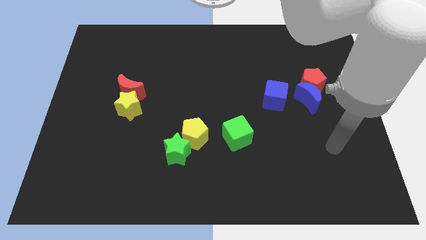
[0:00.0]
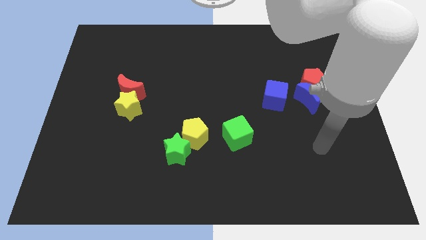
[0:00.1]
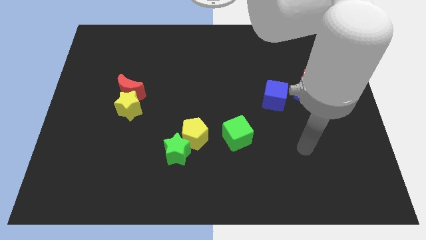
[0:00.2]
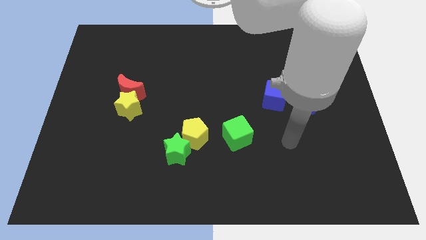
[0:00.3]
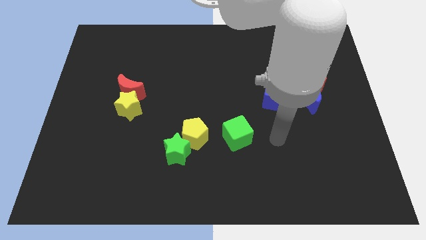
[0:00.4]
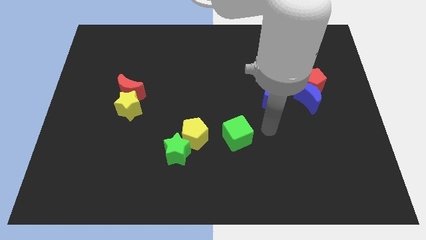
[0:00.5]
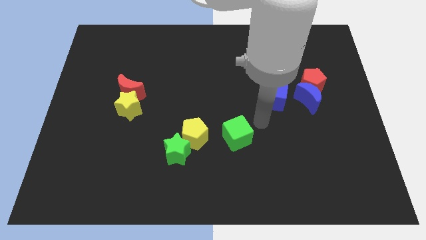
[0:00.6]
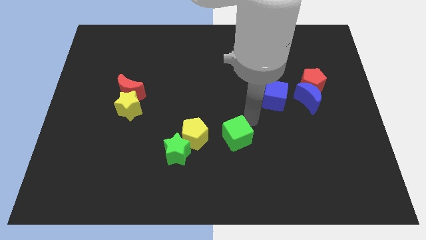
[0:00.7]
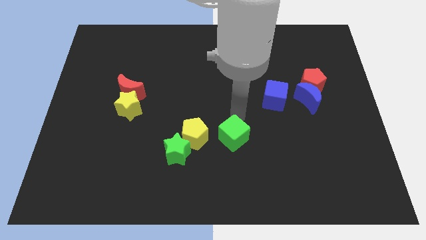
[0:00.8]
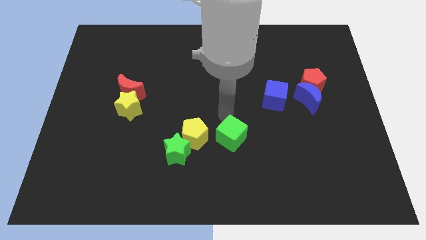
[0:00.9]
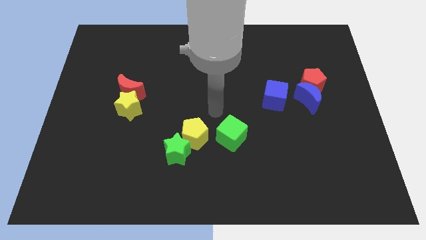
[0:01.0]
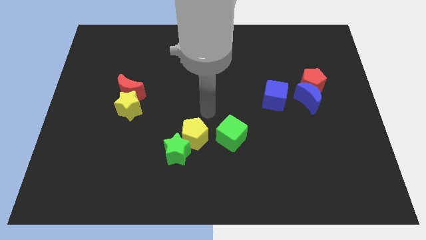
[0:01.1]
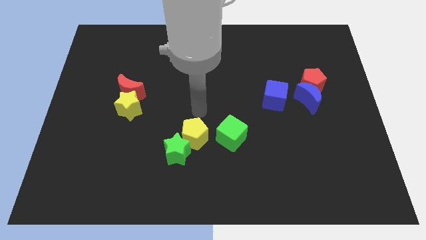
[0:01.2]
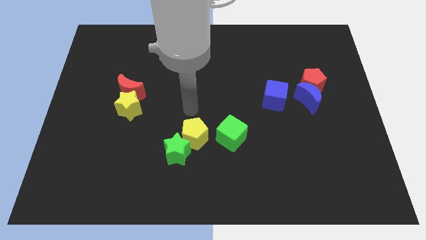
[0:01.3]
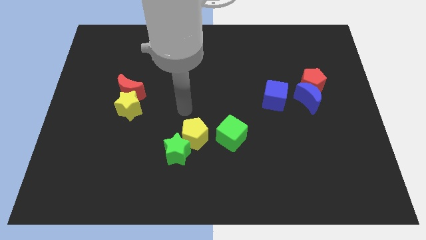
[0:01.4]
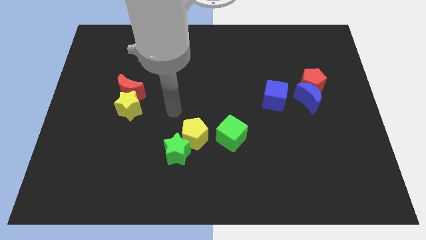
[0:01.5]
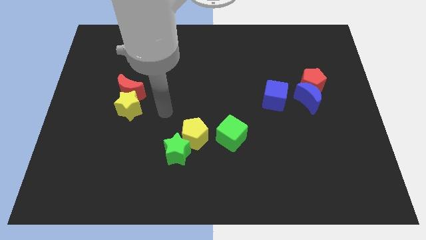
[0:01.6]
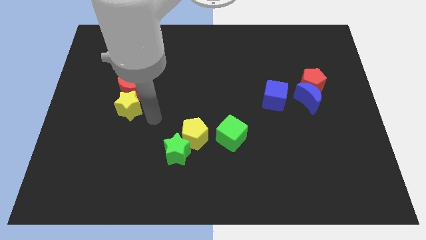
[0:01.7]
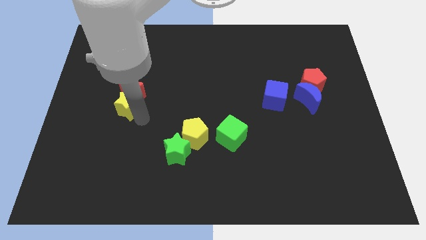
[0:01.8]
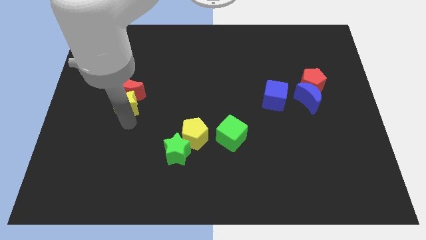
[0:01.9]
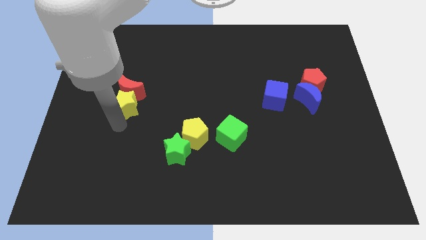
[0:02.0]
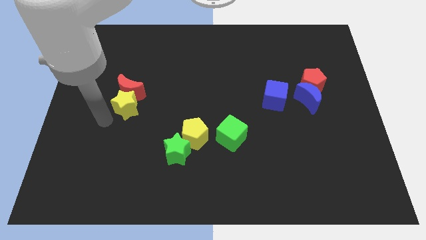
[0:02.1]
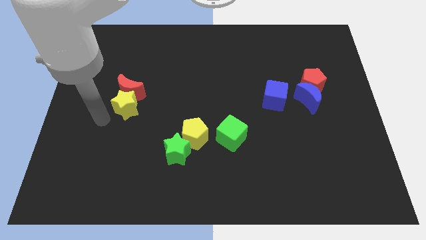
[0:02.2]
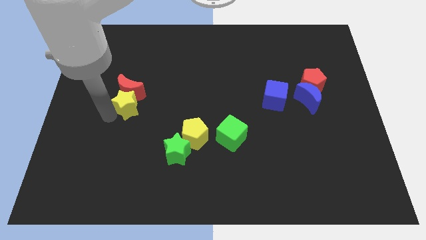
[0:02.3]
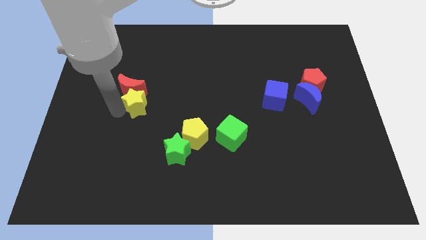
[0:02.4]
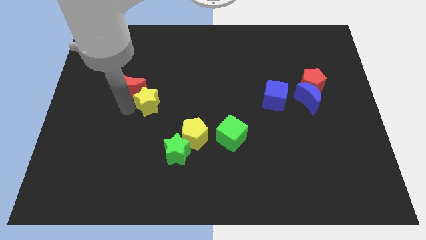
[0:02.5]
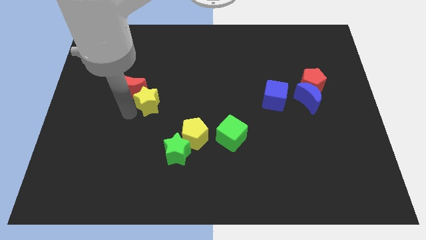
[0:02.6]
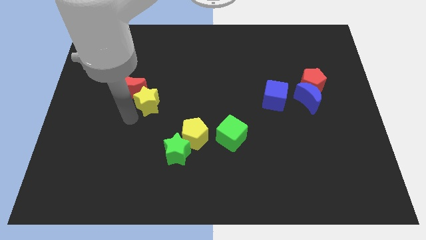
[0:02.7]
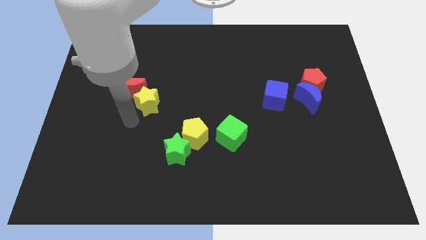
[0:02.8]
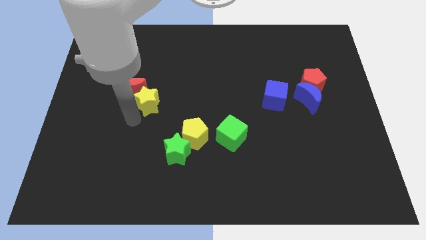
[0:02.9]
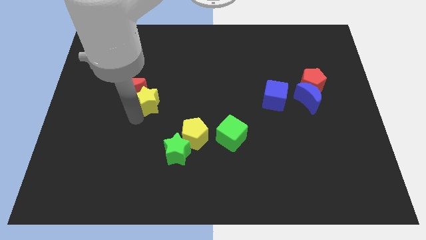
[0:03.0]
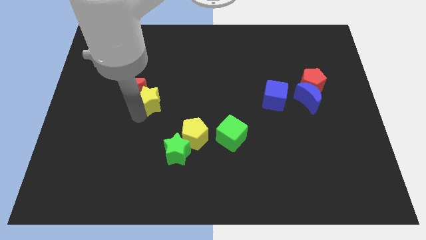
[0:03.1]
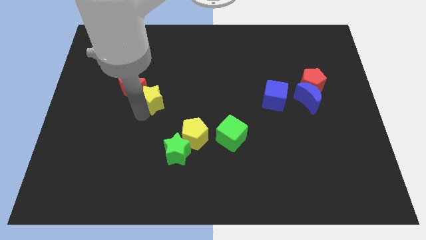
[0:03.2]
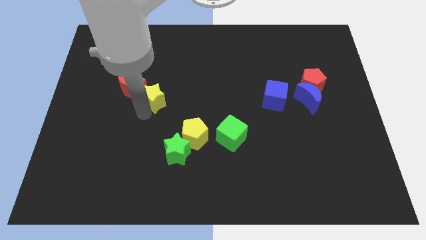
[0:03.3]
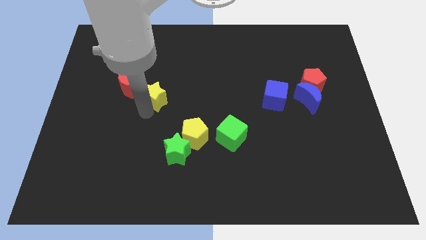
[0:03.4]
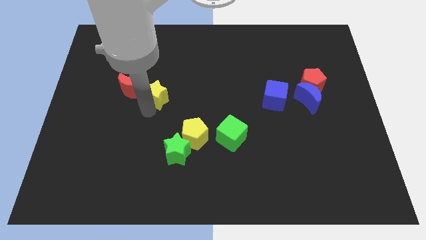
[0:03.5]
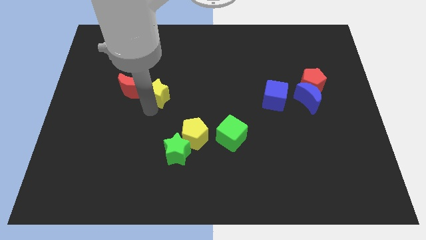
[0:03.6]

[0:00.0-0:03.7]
slide the yellow star upwards and to the right diagonally a bit

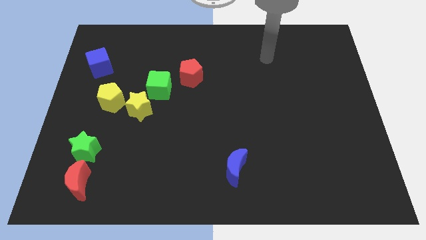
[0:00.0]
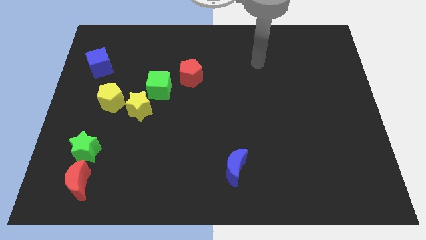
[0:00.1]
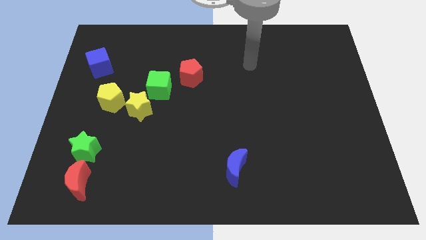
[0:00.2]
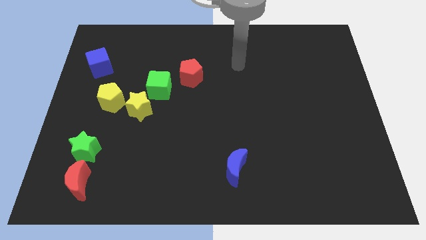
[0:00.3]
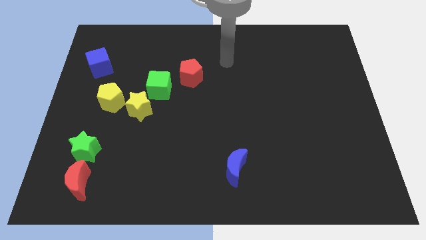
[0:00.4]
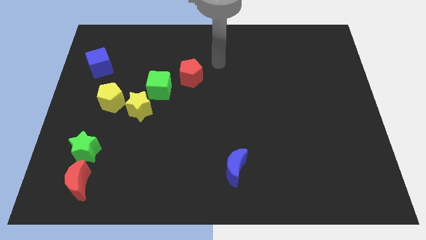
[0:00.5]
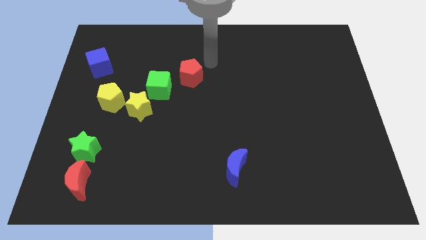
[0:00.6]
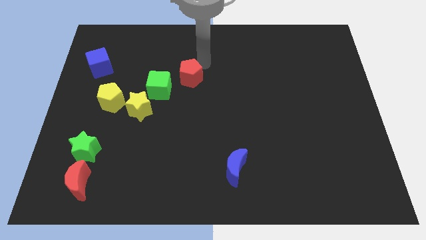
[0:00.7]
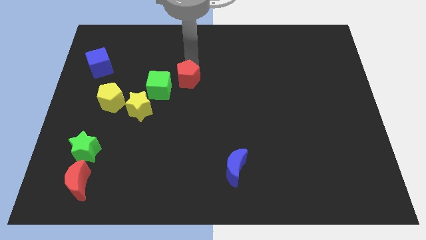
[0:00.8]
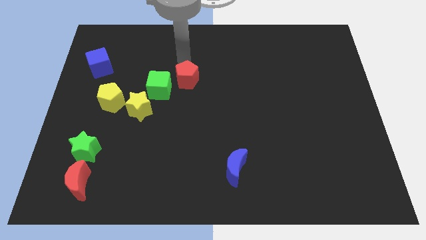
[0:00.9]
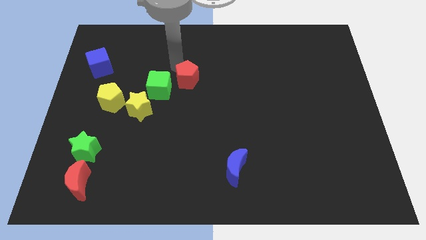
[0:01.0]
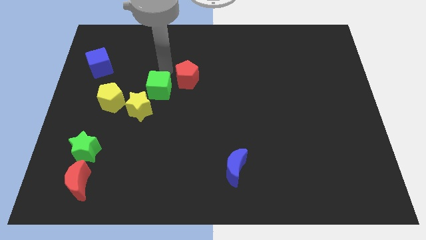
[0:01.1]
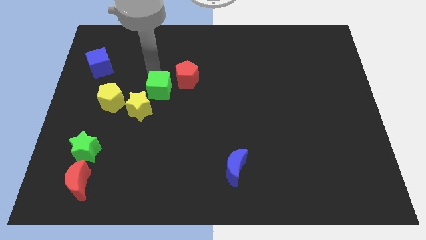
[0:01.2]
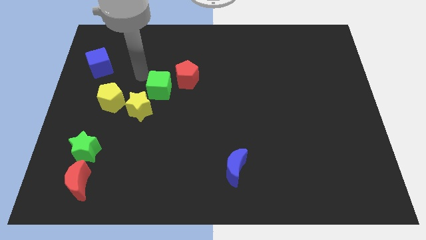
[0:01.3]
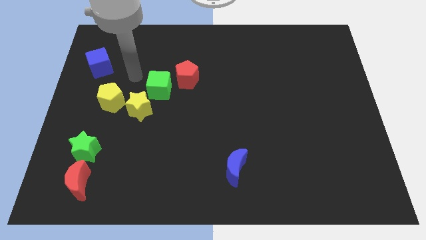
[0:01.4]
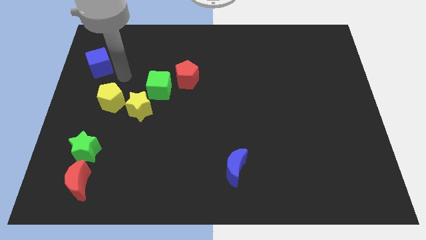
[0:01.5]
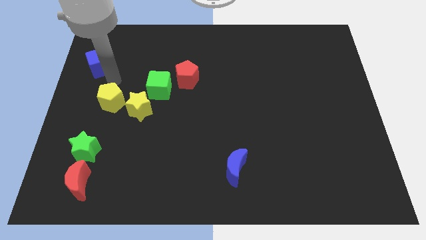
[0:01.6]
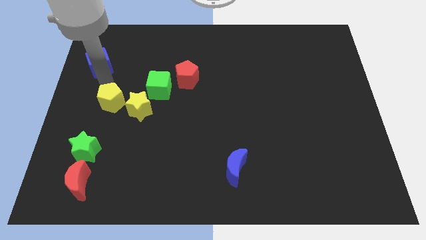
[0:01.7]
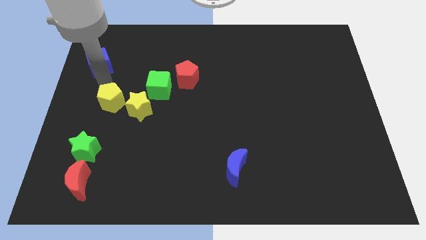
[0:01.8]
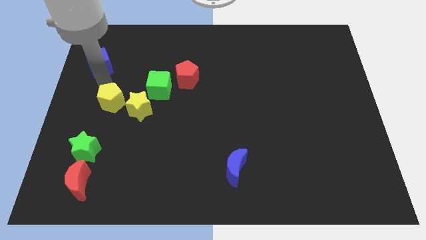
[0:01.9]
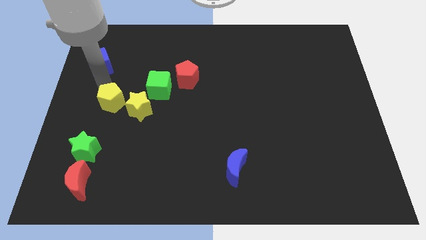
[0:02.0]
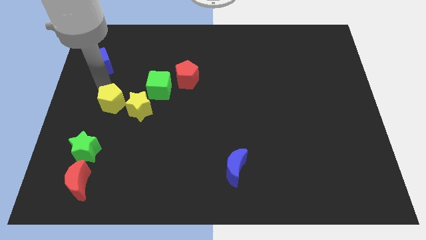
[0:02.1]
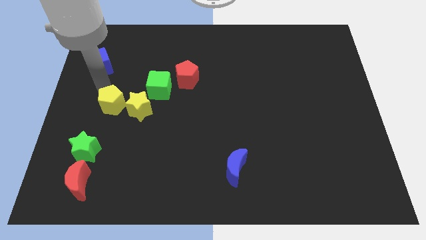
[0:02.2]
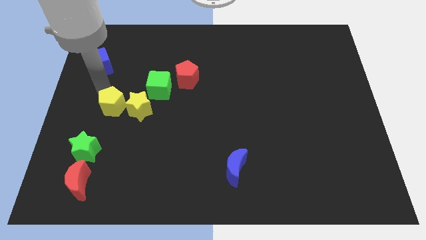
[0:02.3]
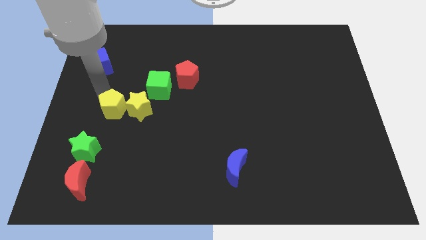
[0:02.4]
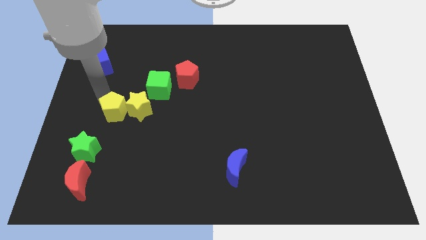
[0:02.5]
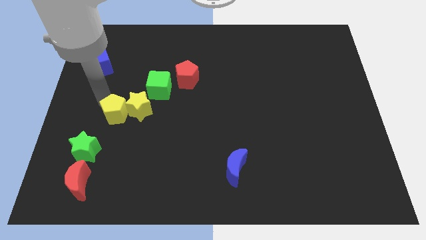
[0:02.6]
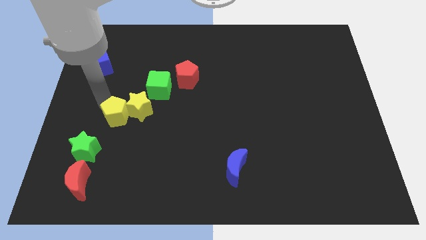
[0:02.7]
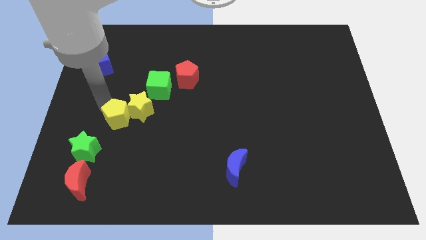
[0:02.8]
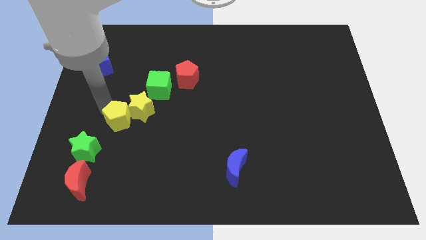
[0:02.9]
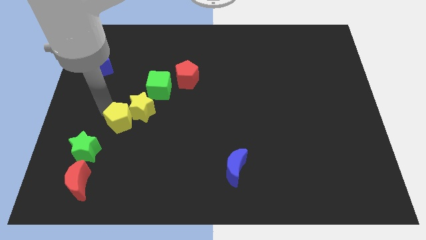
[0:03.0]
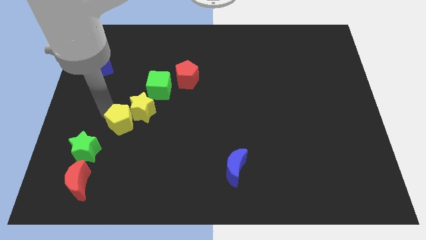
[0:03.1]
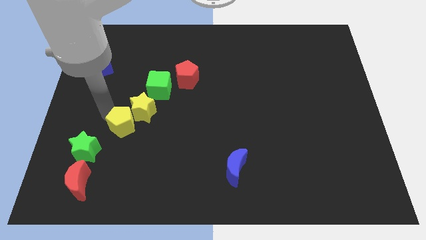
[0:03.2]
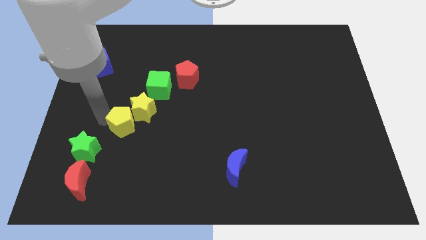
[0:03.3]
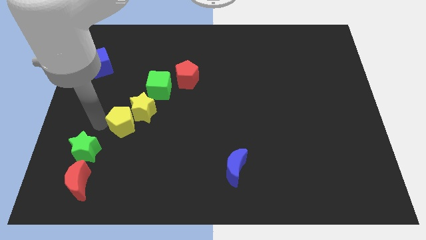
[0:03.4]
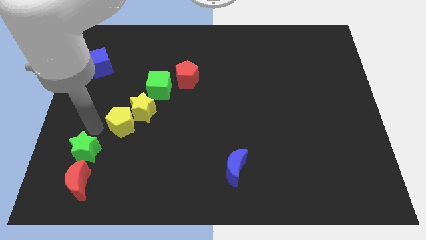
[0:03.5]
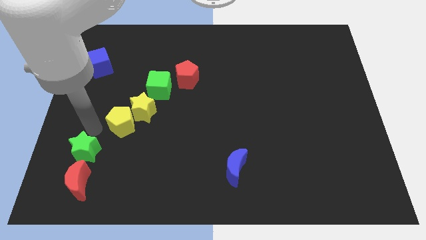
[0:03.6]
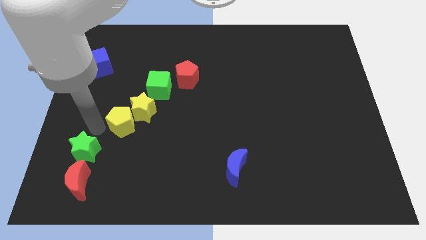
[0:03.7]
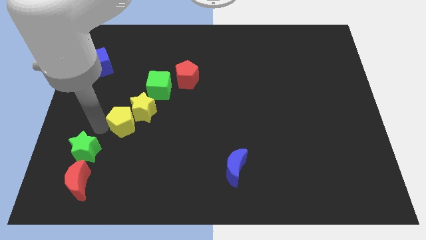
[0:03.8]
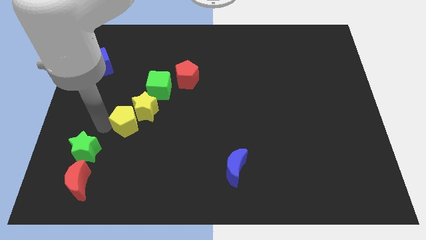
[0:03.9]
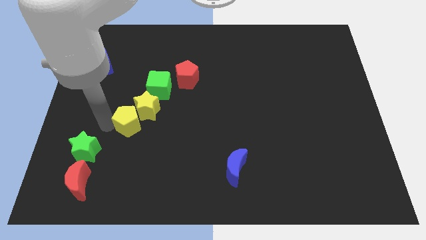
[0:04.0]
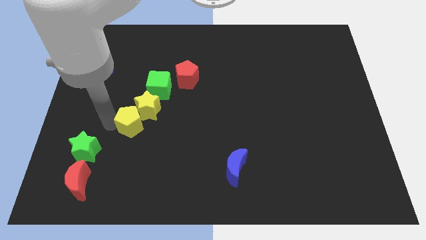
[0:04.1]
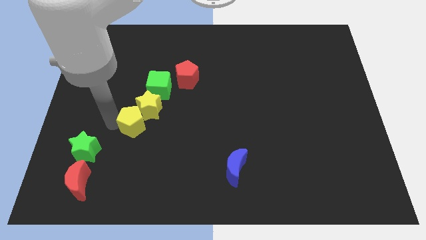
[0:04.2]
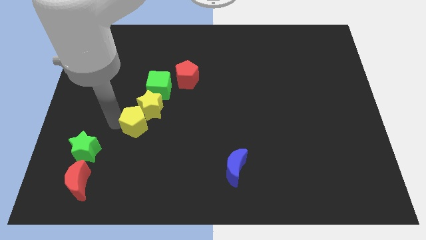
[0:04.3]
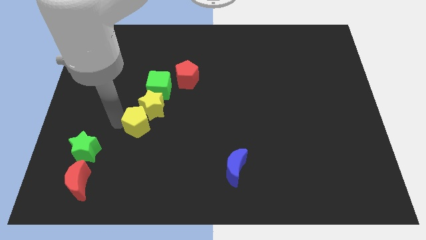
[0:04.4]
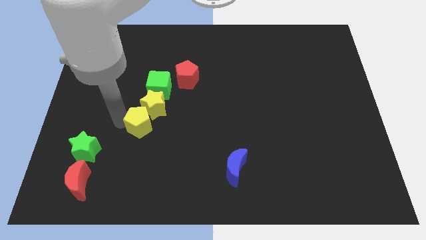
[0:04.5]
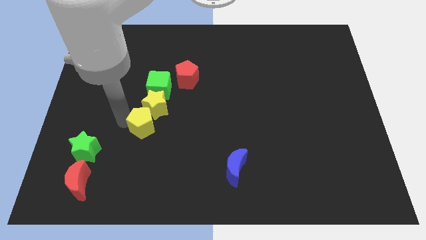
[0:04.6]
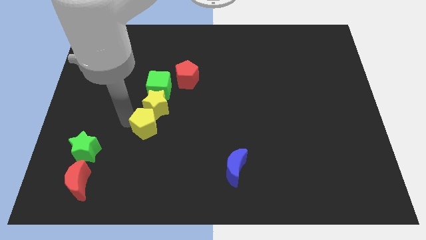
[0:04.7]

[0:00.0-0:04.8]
slide the yellow pentagon a little to the right
